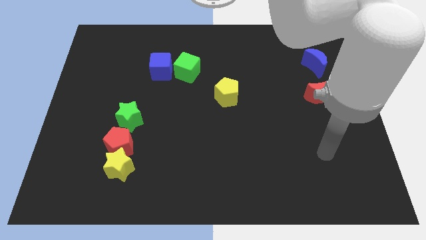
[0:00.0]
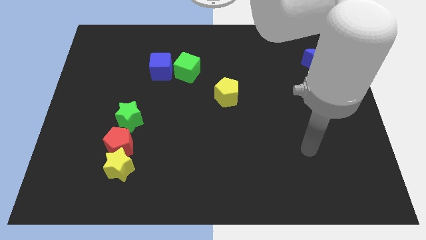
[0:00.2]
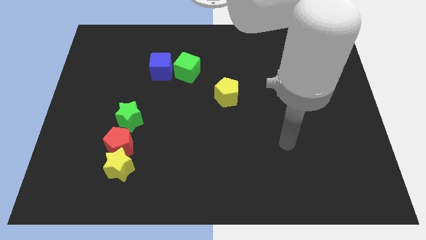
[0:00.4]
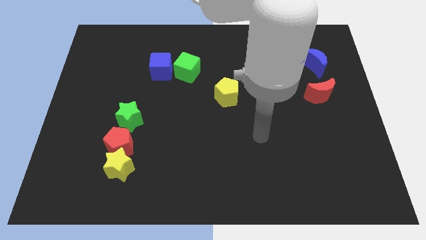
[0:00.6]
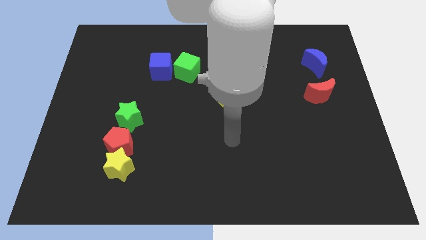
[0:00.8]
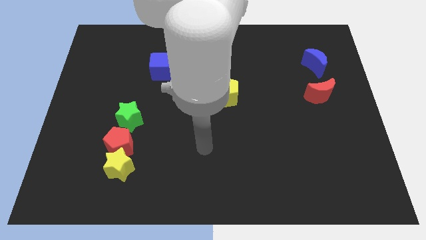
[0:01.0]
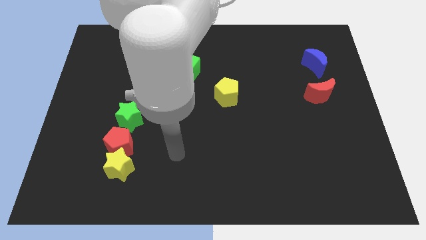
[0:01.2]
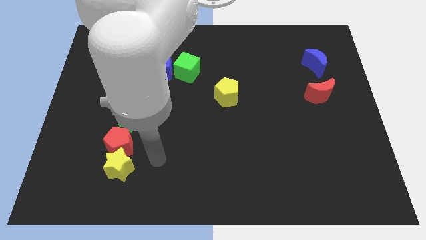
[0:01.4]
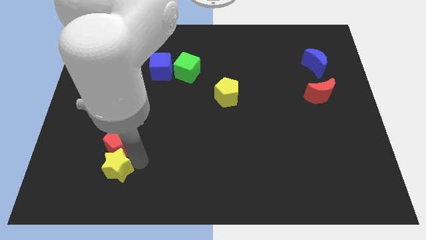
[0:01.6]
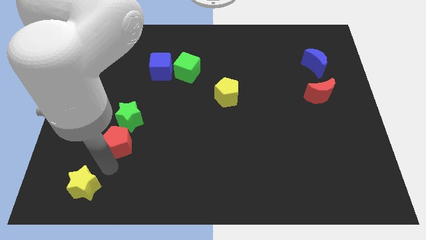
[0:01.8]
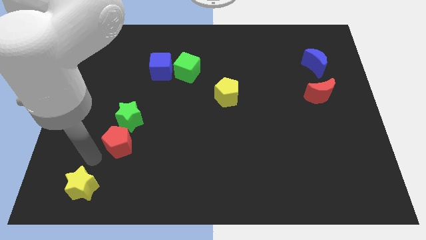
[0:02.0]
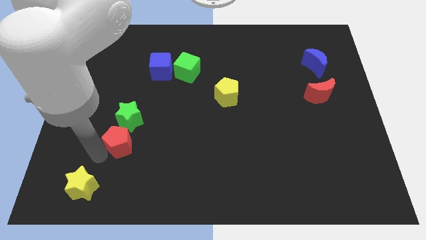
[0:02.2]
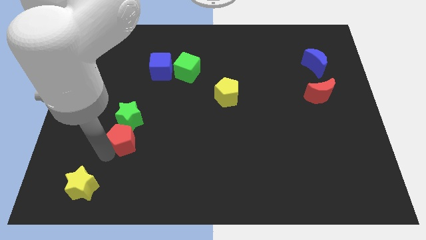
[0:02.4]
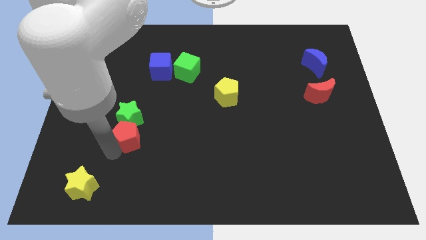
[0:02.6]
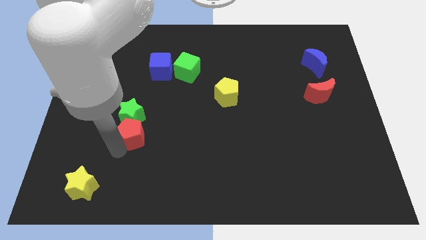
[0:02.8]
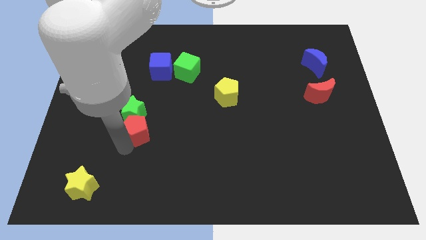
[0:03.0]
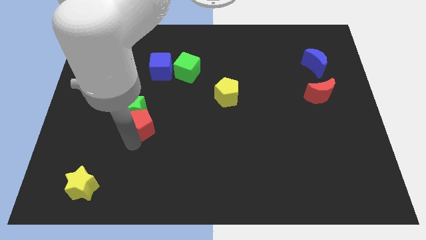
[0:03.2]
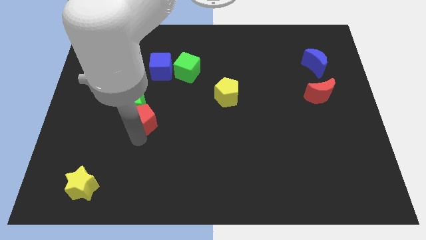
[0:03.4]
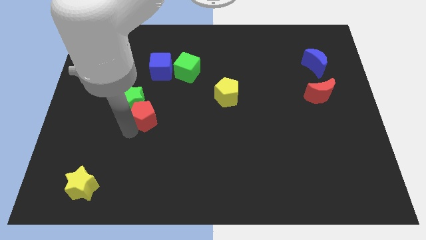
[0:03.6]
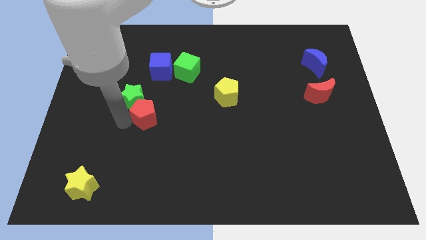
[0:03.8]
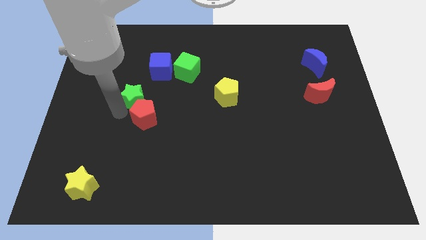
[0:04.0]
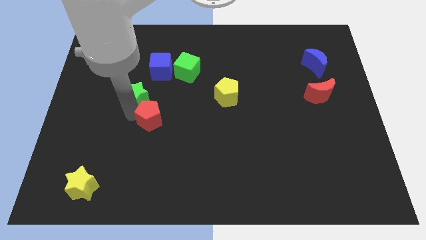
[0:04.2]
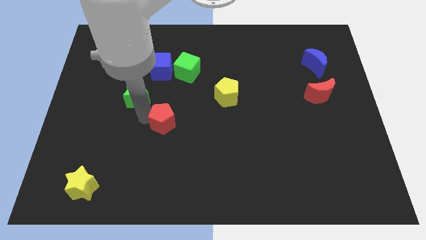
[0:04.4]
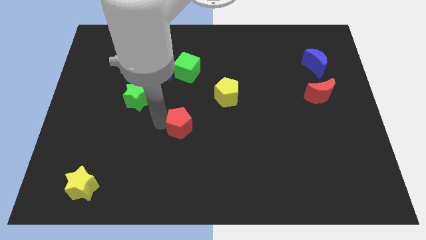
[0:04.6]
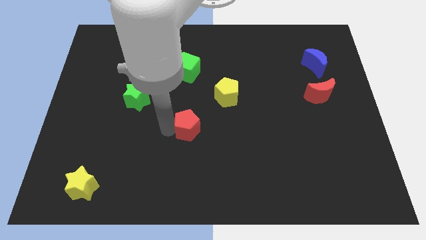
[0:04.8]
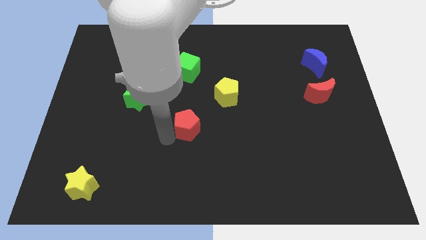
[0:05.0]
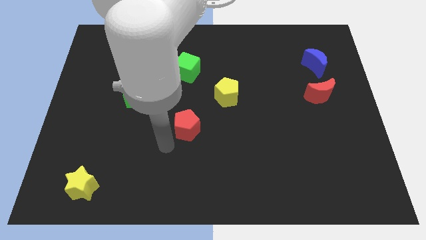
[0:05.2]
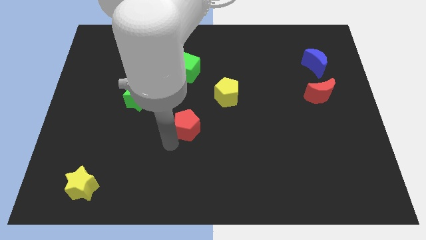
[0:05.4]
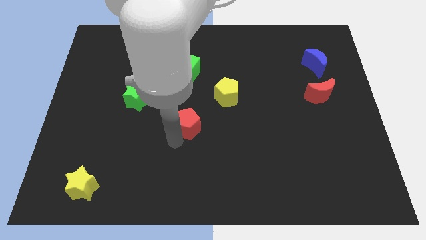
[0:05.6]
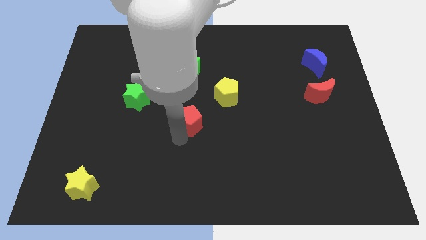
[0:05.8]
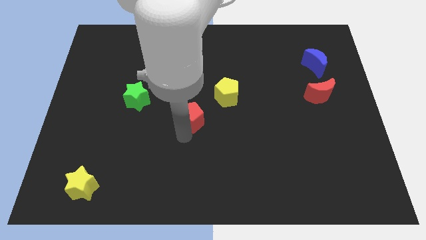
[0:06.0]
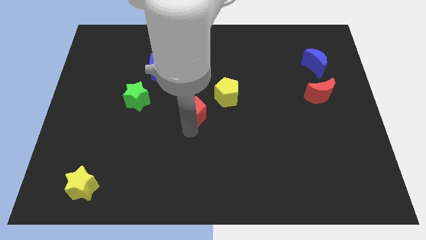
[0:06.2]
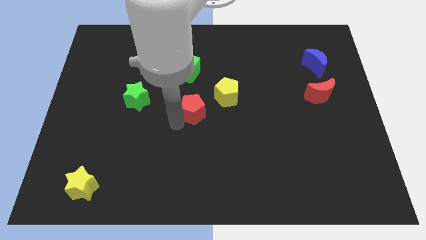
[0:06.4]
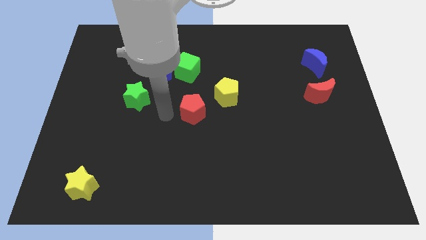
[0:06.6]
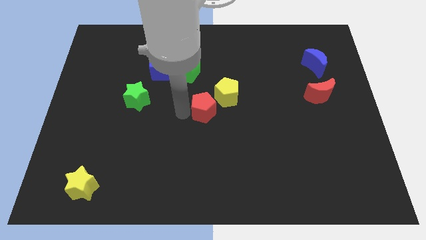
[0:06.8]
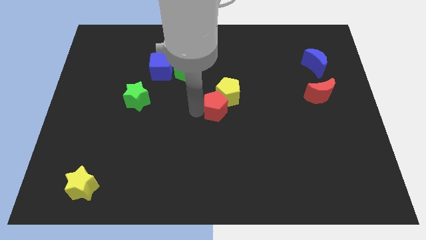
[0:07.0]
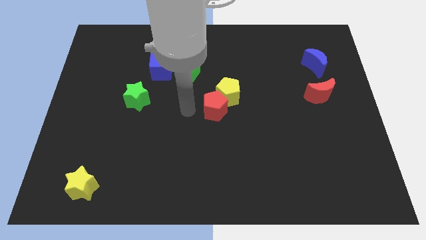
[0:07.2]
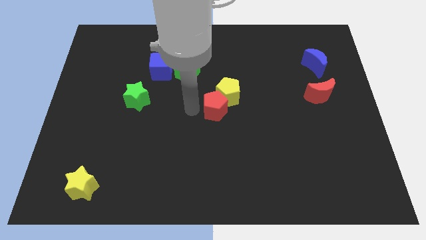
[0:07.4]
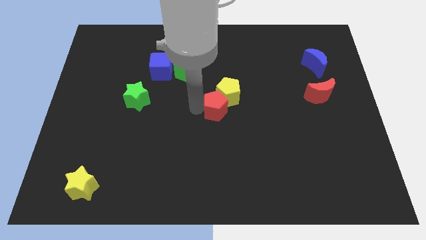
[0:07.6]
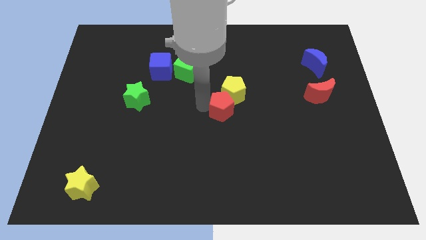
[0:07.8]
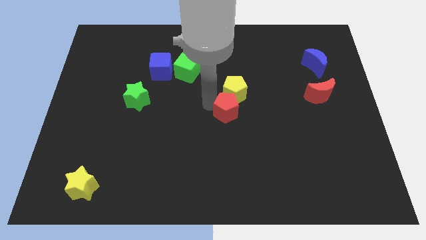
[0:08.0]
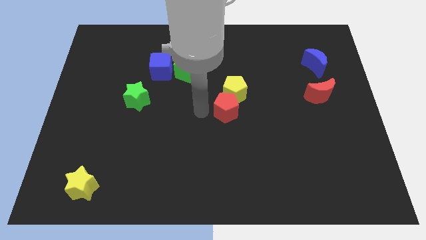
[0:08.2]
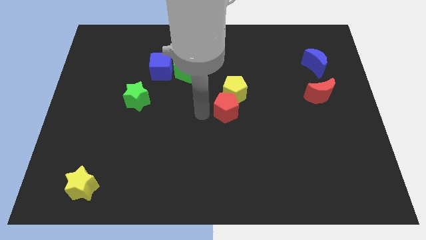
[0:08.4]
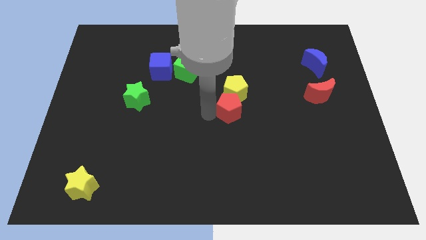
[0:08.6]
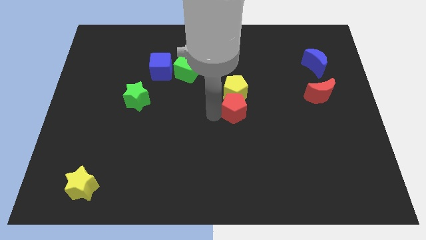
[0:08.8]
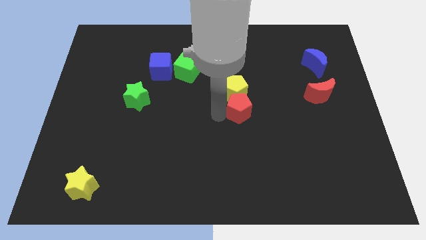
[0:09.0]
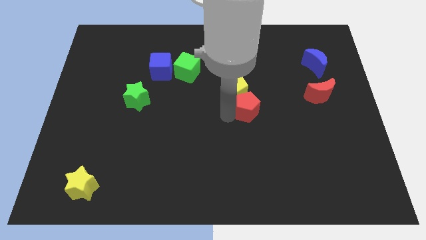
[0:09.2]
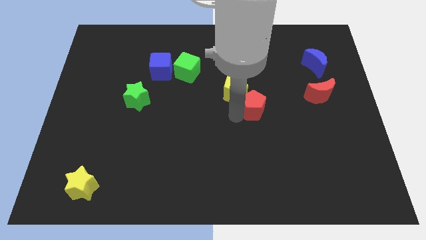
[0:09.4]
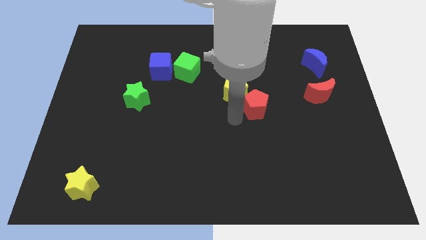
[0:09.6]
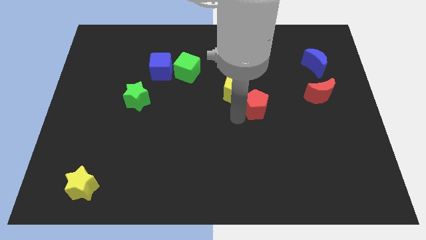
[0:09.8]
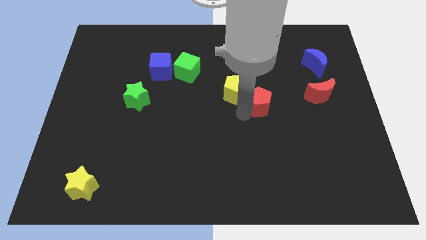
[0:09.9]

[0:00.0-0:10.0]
slide the red pentagon left of the red moon

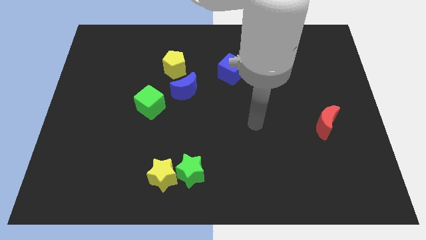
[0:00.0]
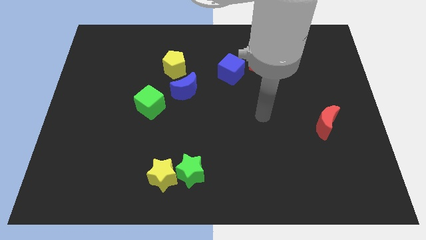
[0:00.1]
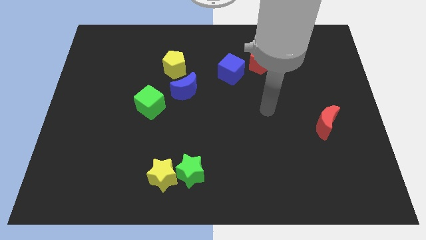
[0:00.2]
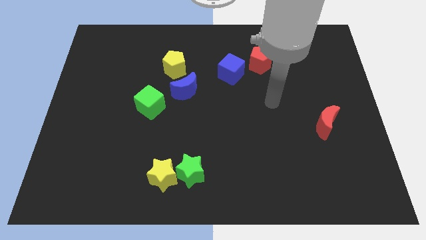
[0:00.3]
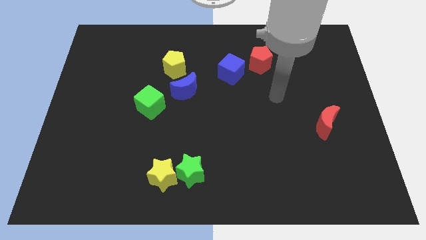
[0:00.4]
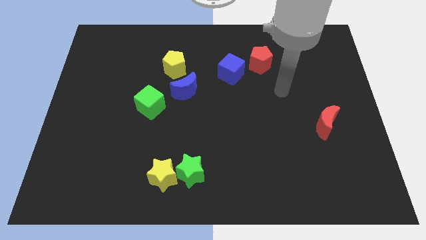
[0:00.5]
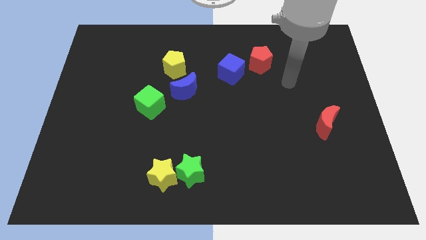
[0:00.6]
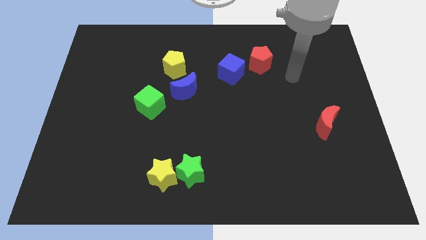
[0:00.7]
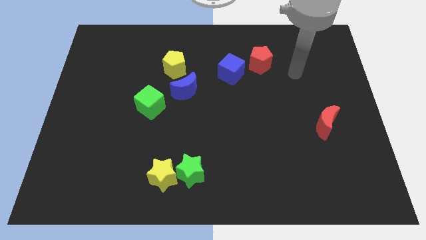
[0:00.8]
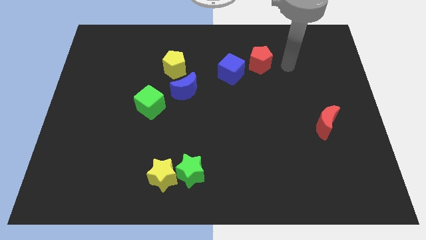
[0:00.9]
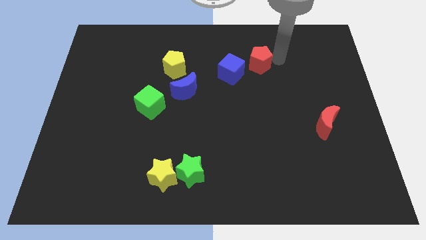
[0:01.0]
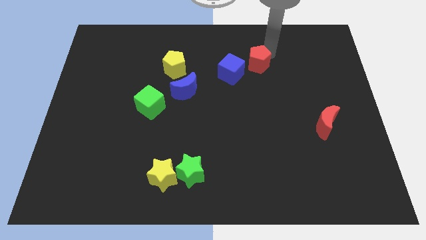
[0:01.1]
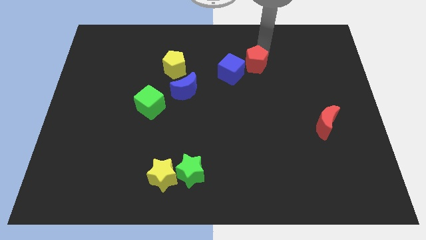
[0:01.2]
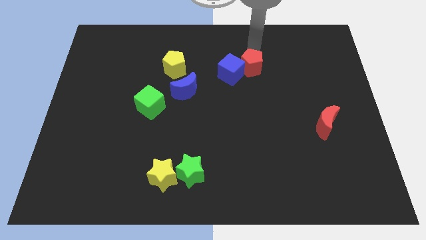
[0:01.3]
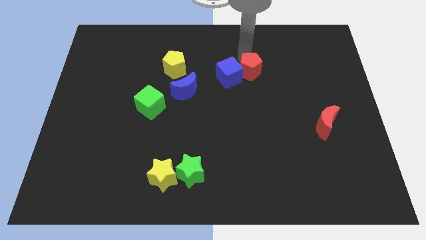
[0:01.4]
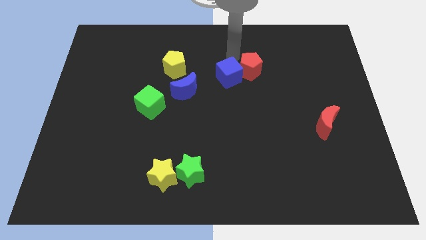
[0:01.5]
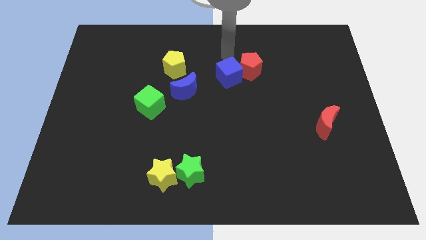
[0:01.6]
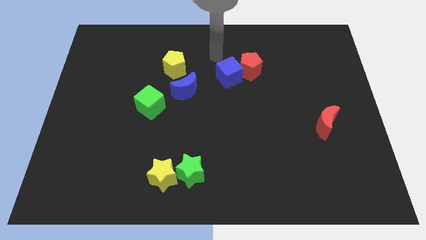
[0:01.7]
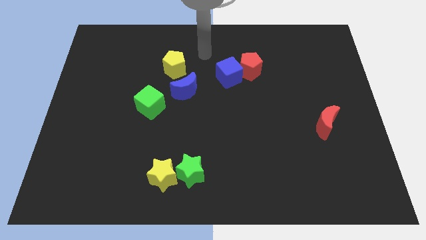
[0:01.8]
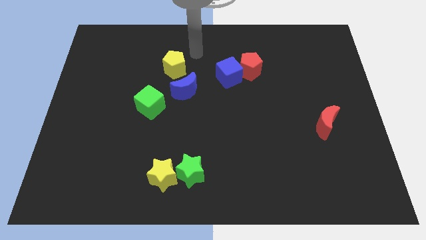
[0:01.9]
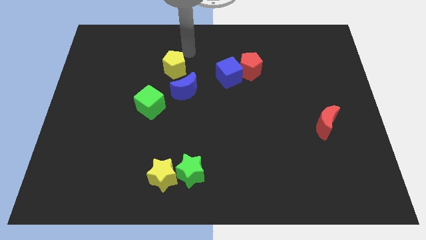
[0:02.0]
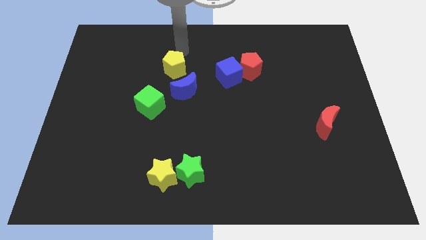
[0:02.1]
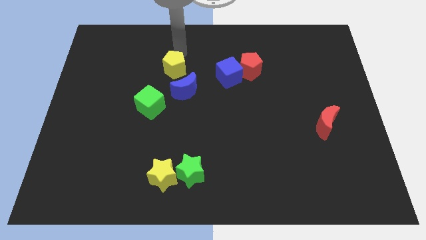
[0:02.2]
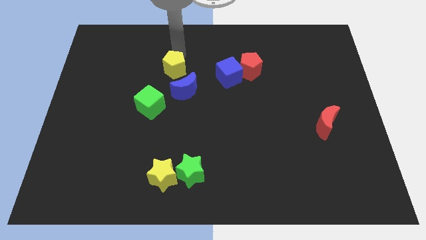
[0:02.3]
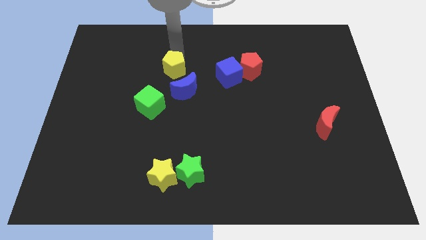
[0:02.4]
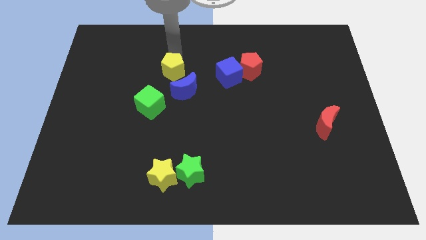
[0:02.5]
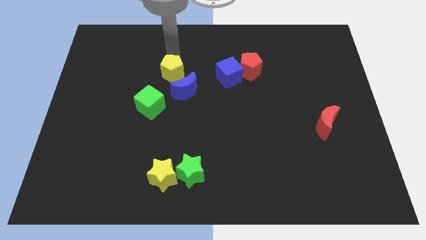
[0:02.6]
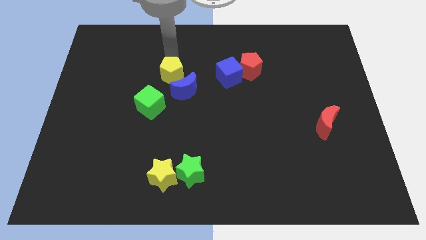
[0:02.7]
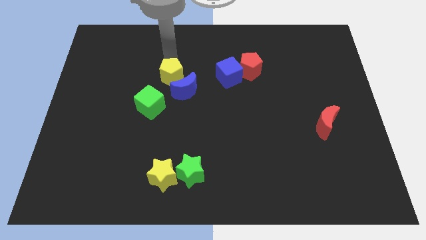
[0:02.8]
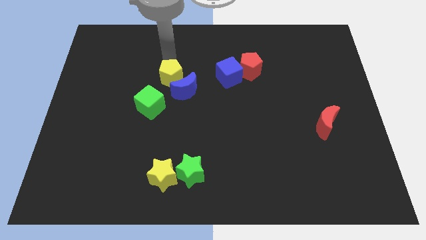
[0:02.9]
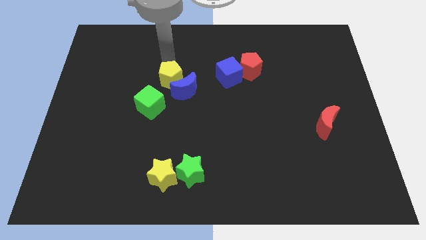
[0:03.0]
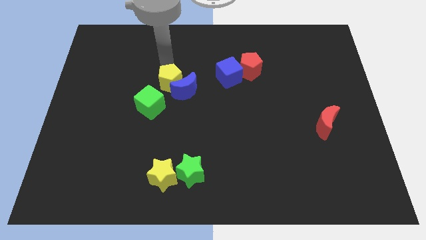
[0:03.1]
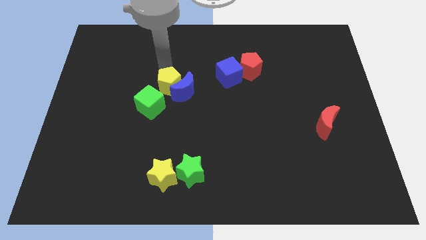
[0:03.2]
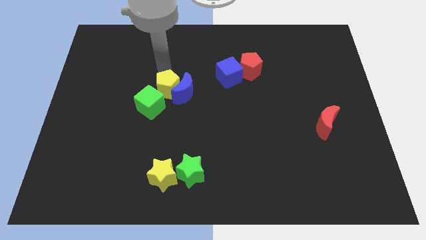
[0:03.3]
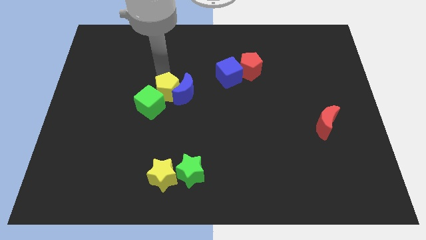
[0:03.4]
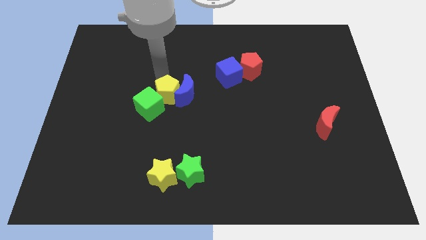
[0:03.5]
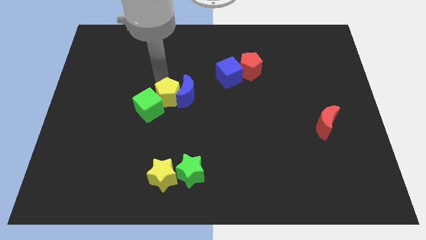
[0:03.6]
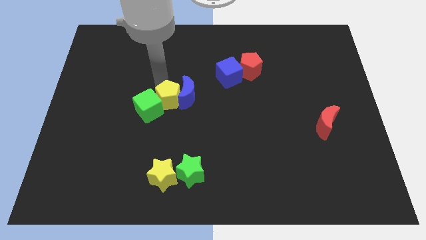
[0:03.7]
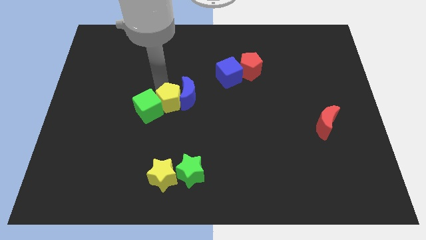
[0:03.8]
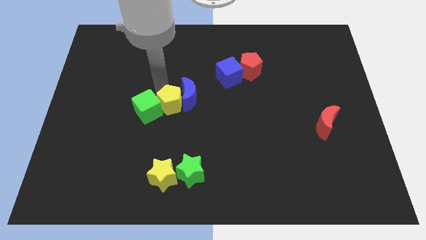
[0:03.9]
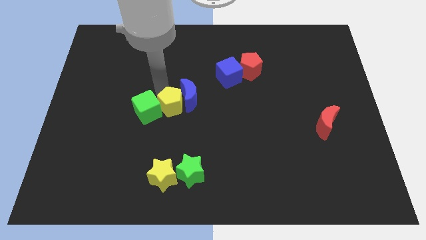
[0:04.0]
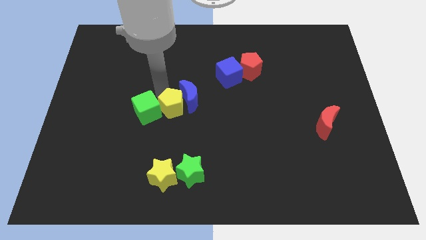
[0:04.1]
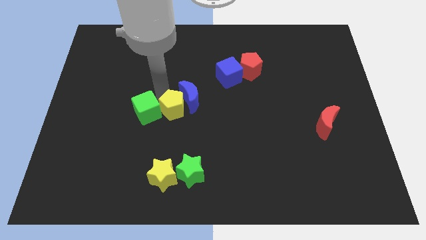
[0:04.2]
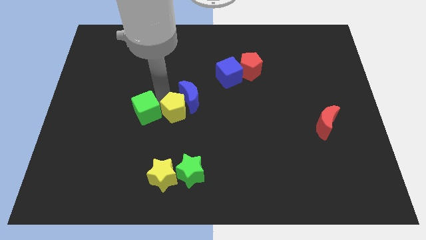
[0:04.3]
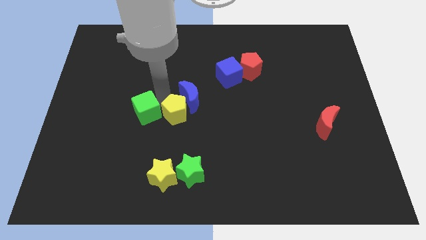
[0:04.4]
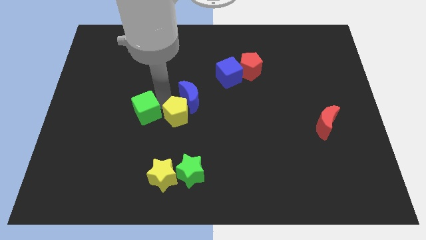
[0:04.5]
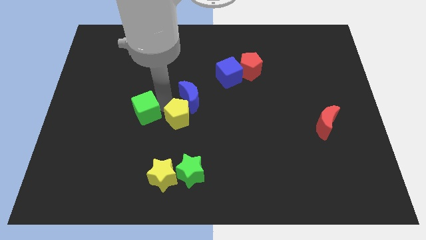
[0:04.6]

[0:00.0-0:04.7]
slide the yellow pentagon to the top side of the green star
